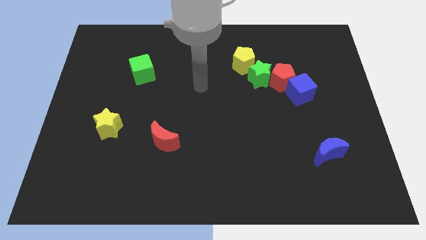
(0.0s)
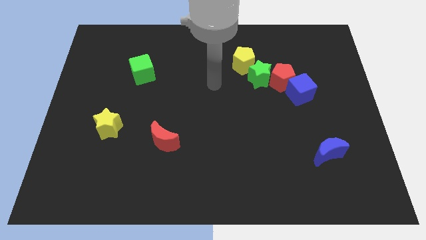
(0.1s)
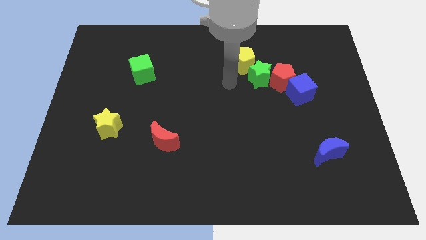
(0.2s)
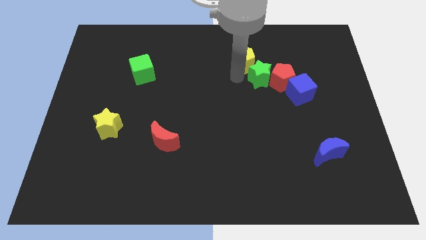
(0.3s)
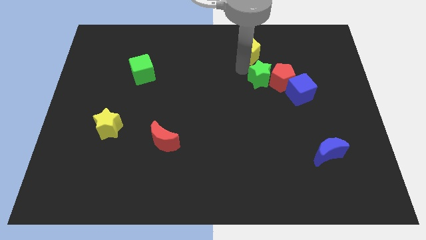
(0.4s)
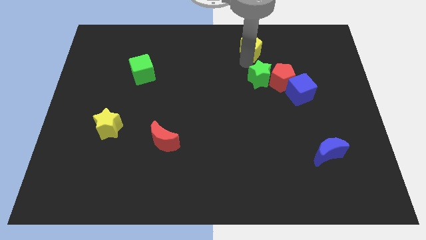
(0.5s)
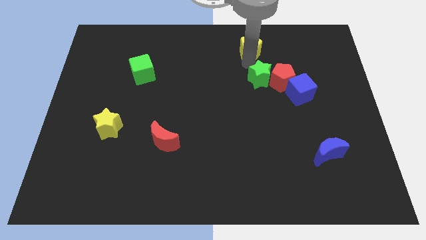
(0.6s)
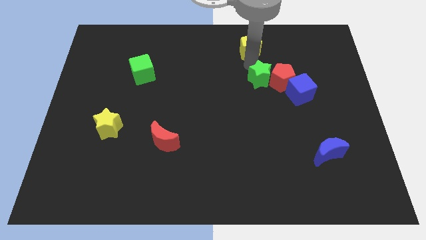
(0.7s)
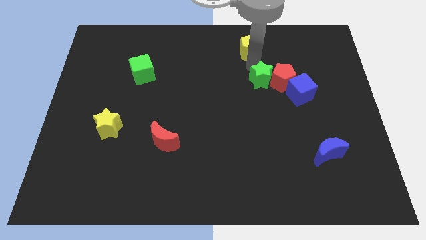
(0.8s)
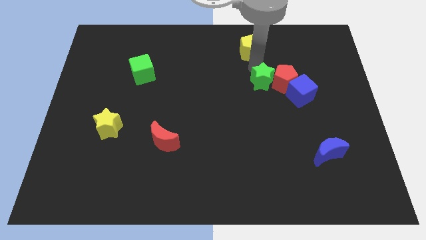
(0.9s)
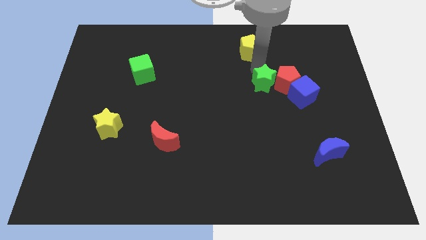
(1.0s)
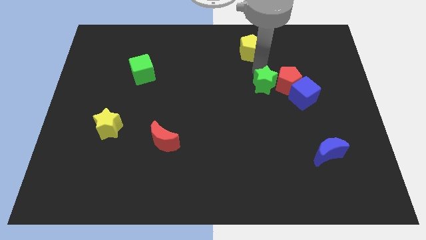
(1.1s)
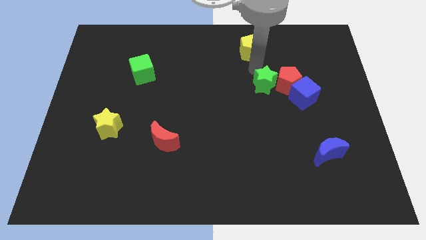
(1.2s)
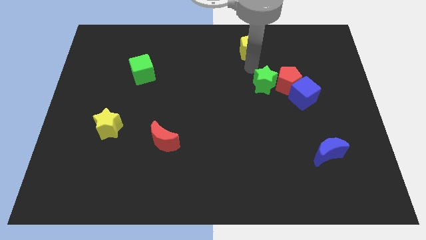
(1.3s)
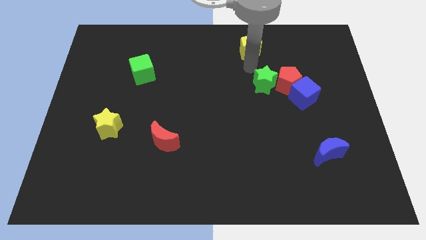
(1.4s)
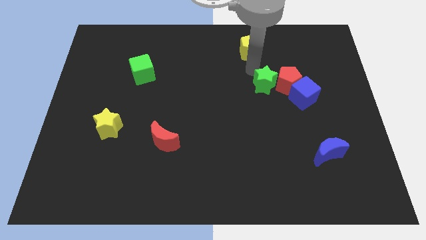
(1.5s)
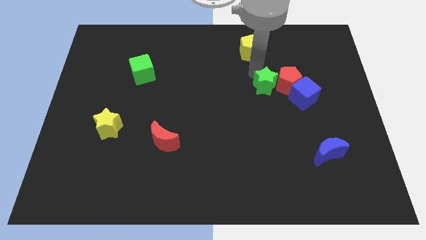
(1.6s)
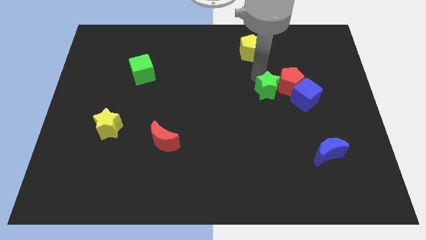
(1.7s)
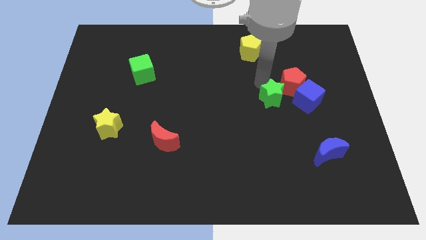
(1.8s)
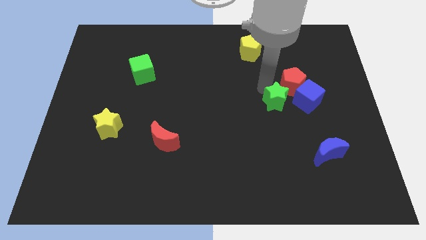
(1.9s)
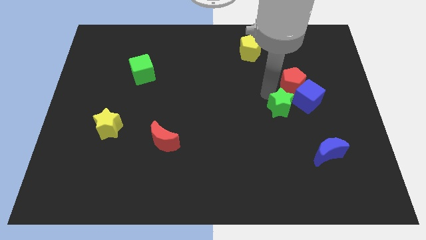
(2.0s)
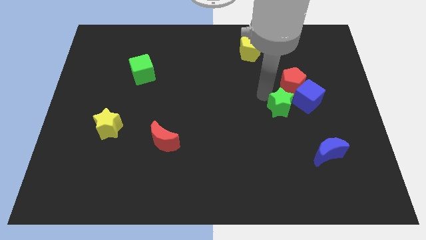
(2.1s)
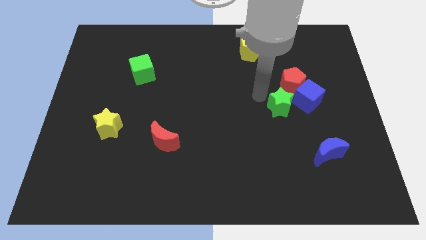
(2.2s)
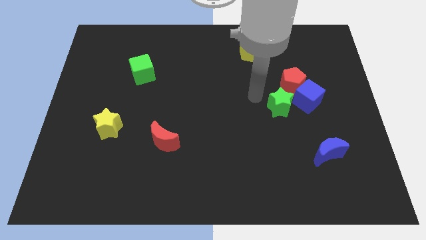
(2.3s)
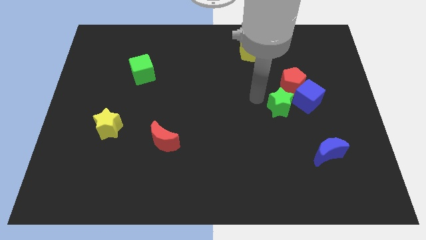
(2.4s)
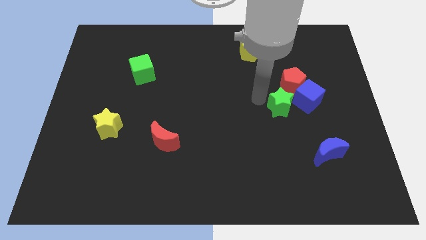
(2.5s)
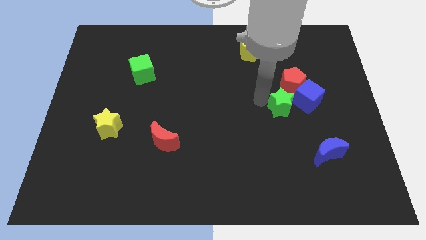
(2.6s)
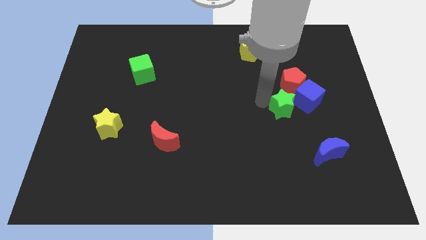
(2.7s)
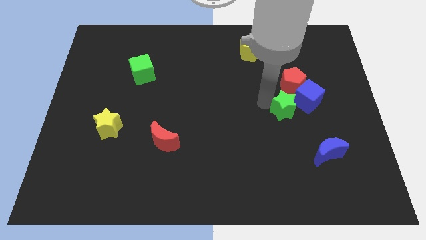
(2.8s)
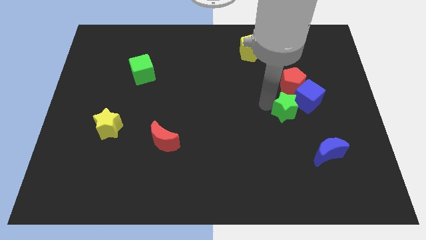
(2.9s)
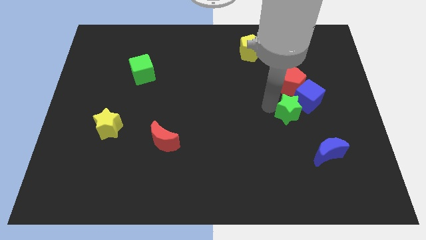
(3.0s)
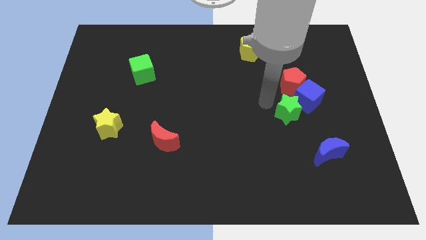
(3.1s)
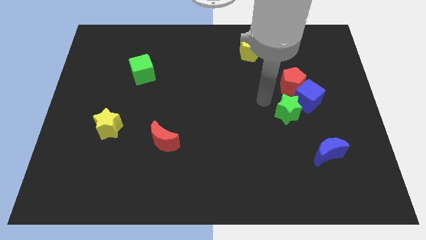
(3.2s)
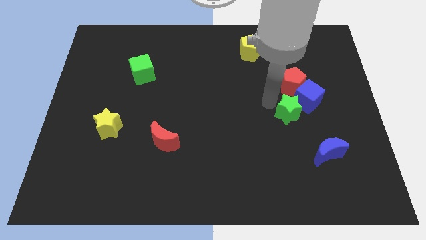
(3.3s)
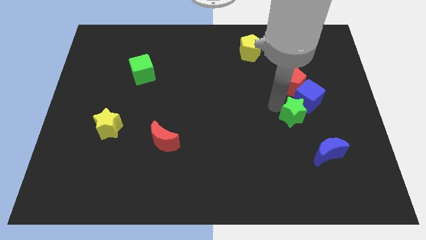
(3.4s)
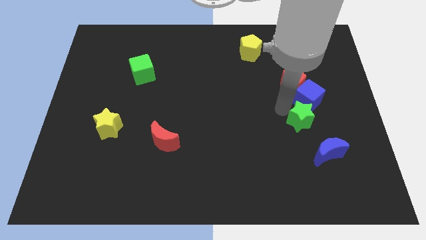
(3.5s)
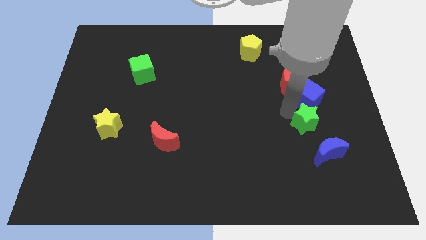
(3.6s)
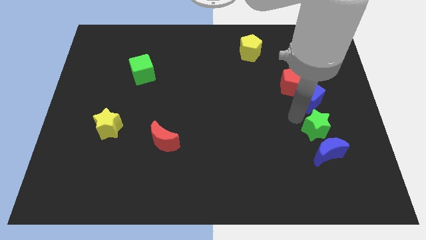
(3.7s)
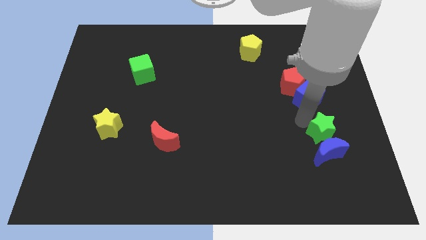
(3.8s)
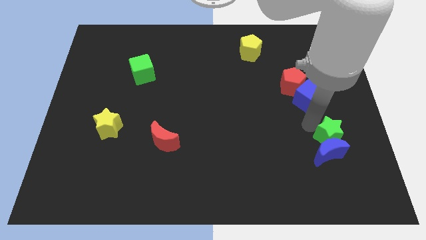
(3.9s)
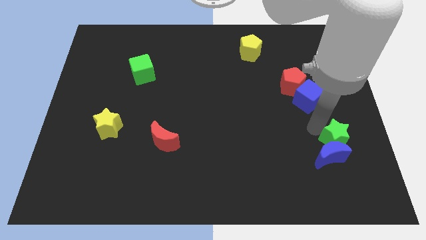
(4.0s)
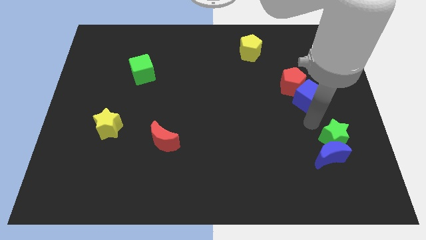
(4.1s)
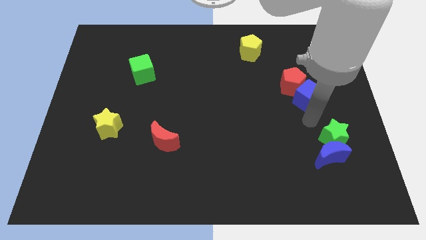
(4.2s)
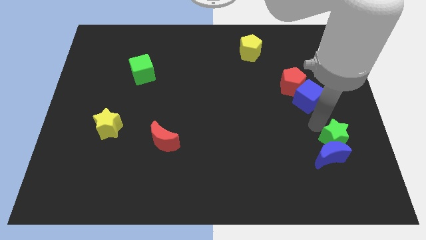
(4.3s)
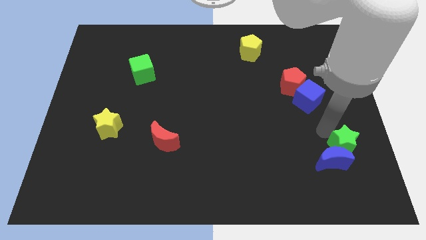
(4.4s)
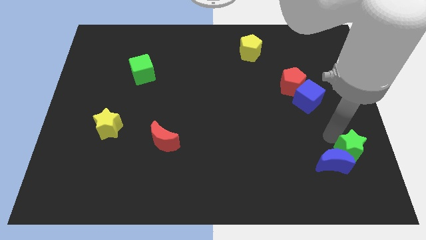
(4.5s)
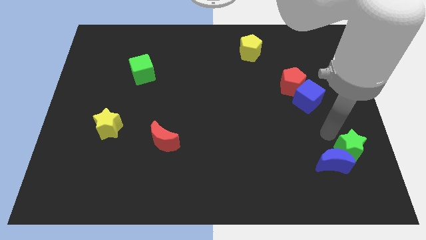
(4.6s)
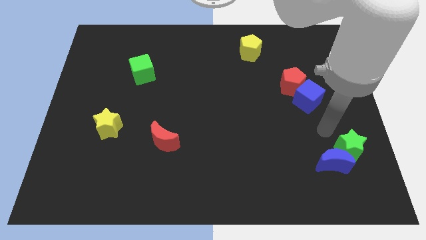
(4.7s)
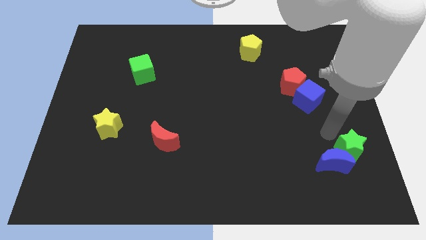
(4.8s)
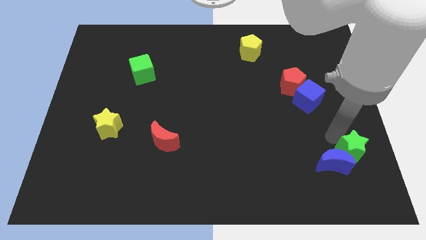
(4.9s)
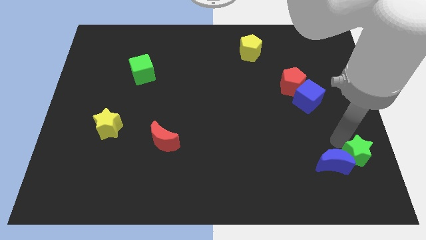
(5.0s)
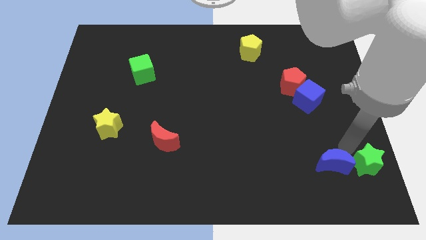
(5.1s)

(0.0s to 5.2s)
push the green star to the bottom right

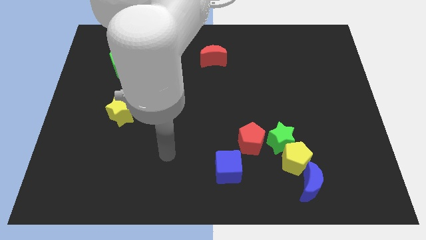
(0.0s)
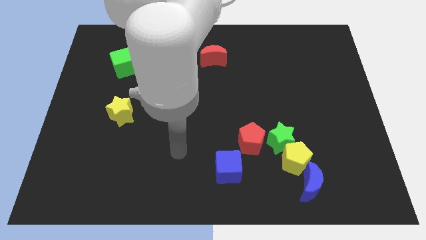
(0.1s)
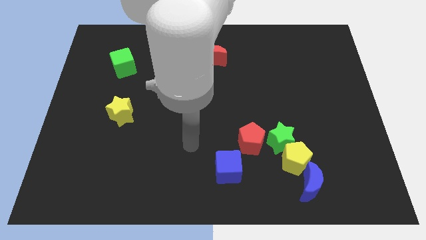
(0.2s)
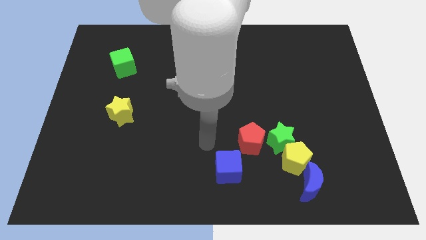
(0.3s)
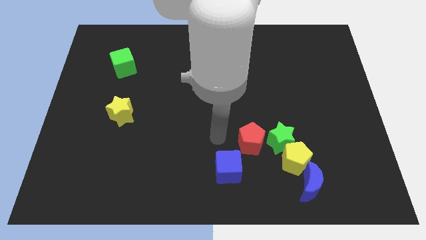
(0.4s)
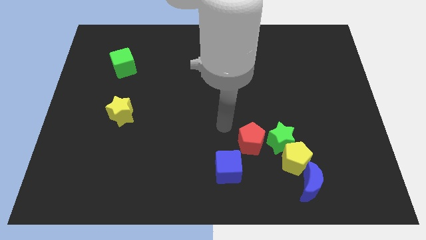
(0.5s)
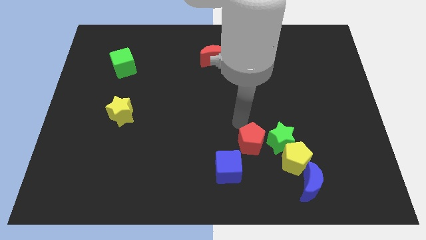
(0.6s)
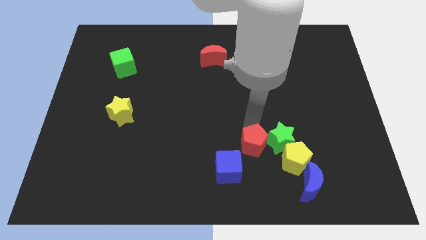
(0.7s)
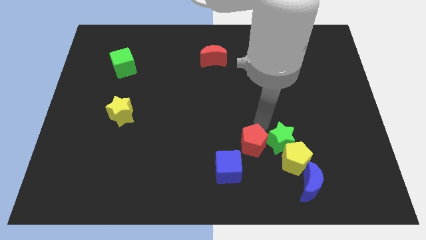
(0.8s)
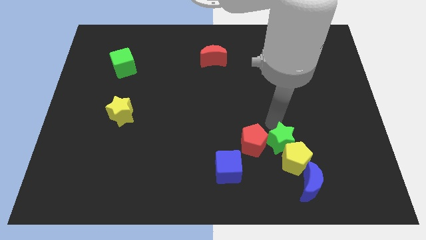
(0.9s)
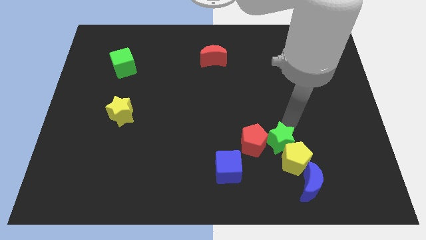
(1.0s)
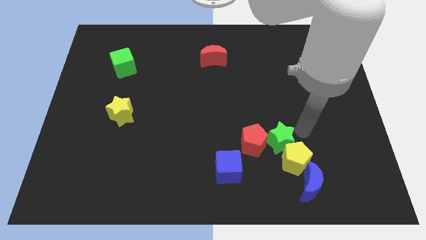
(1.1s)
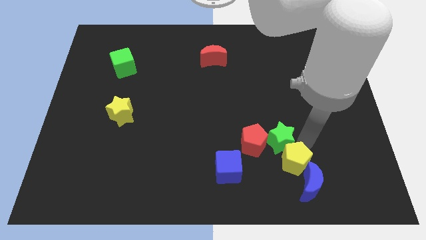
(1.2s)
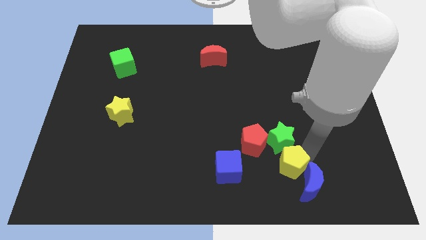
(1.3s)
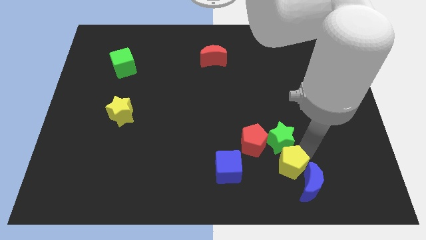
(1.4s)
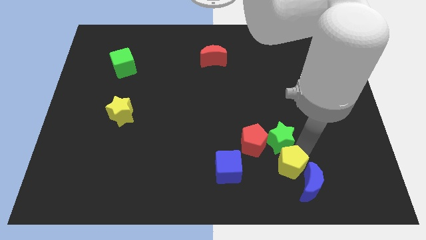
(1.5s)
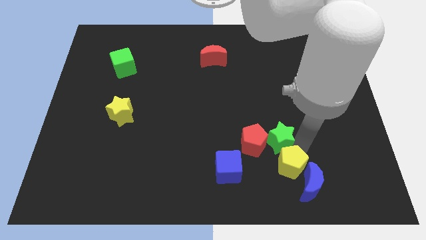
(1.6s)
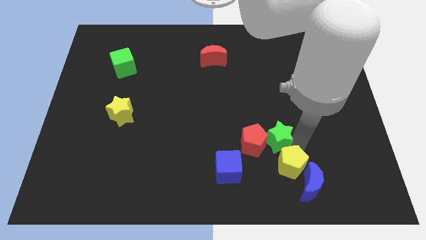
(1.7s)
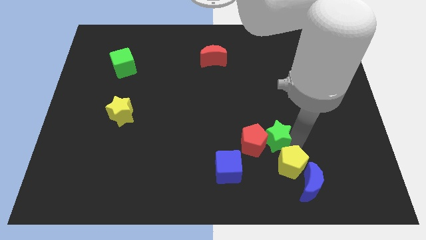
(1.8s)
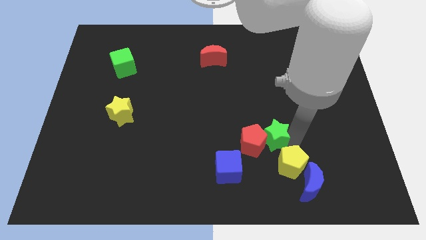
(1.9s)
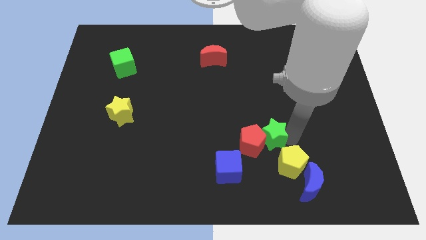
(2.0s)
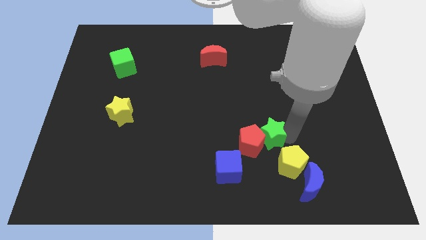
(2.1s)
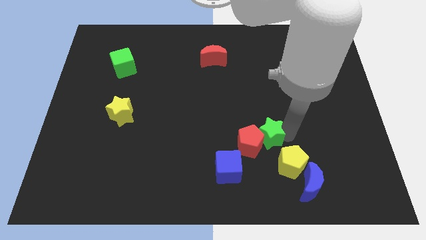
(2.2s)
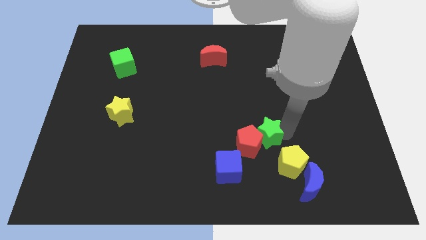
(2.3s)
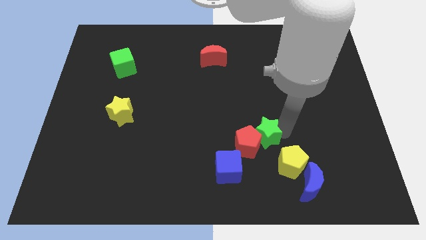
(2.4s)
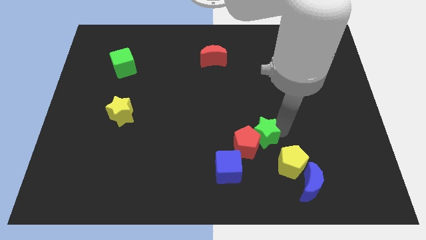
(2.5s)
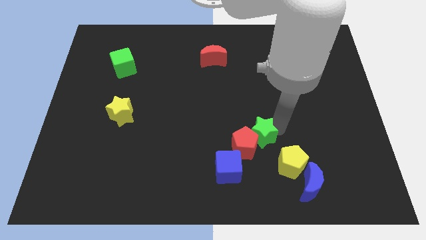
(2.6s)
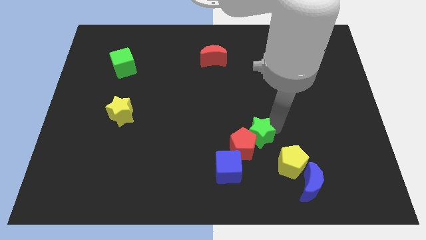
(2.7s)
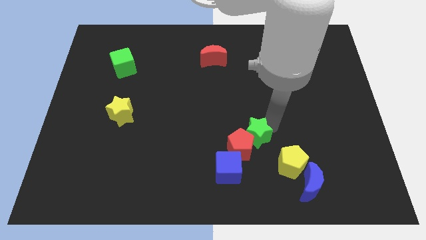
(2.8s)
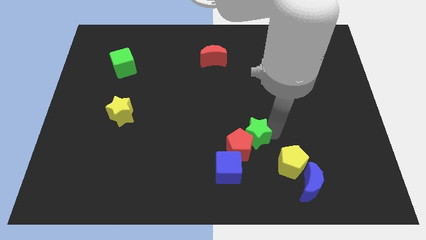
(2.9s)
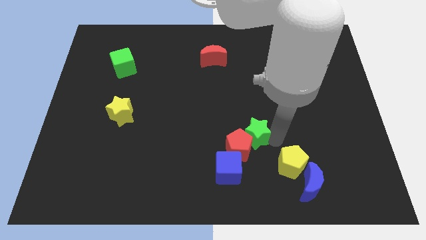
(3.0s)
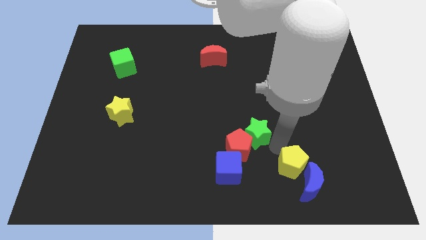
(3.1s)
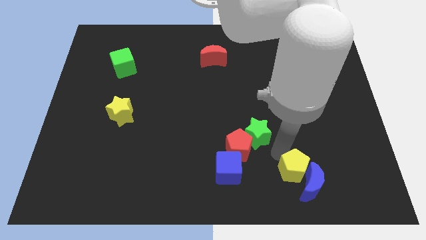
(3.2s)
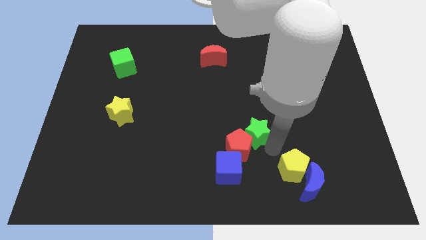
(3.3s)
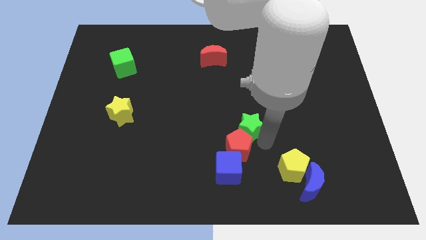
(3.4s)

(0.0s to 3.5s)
put the green star to the center
